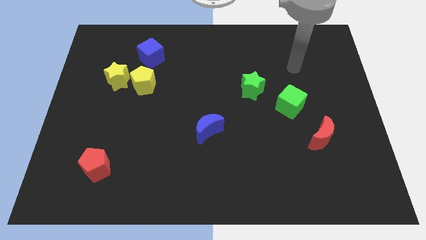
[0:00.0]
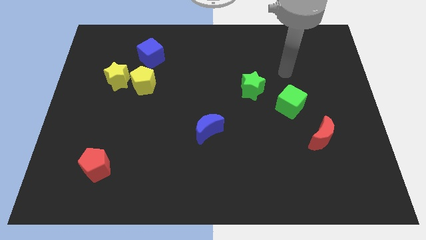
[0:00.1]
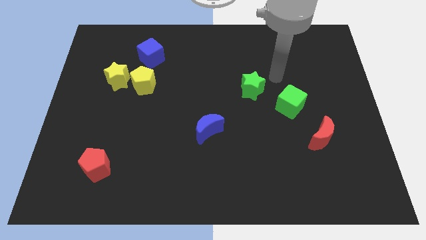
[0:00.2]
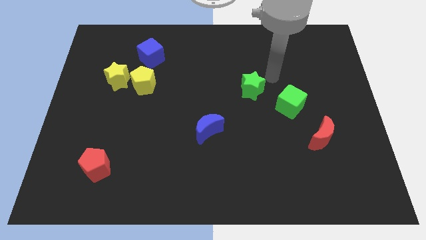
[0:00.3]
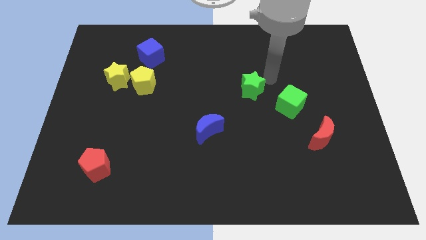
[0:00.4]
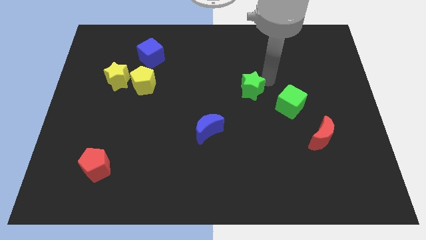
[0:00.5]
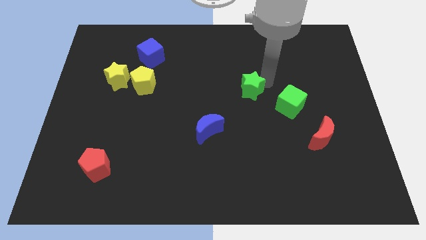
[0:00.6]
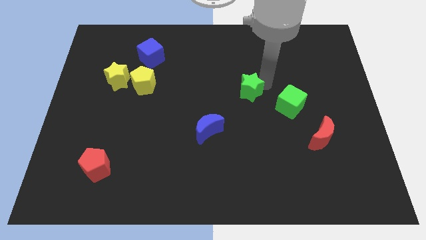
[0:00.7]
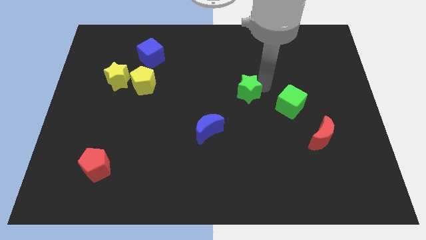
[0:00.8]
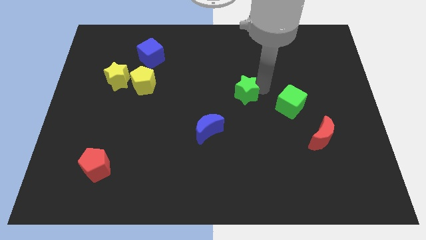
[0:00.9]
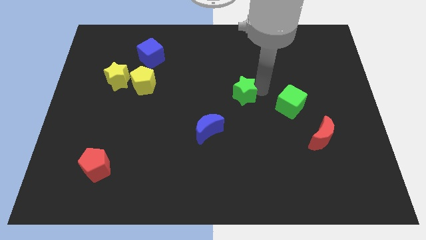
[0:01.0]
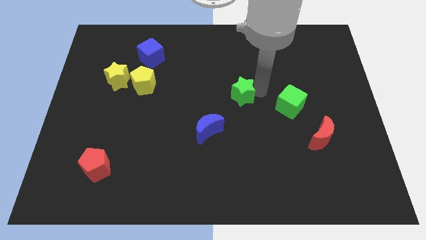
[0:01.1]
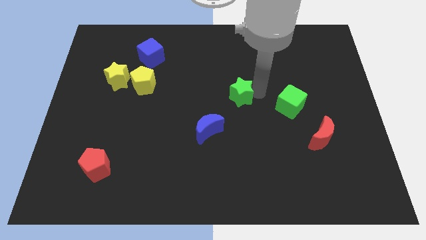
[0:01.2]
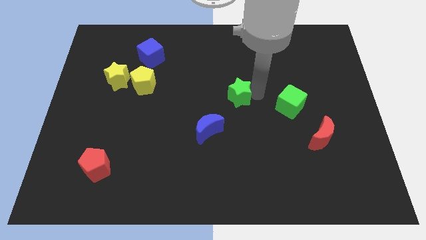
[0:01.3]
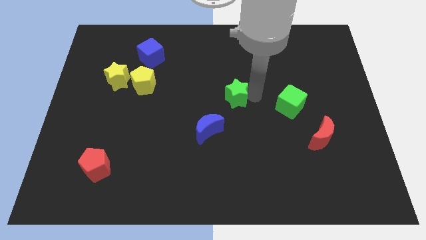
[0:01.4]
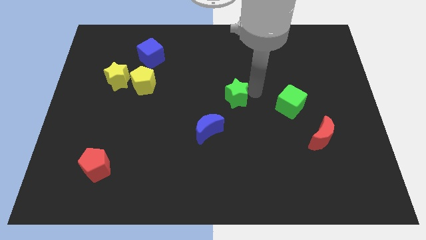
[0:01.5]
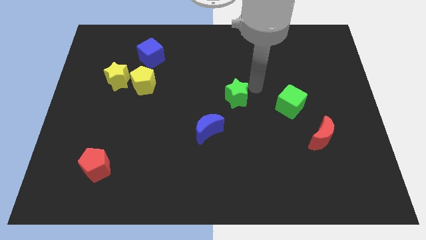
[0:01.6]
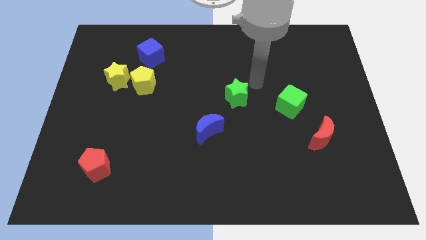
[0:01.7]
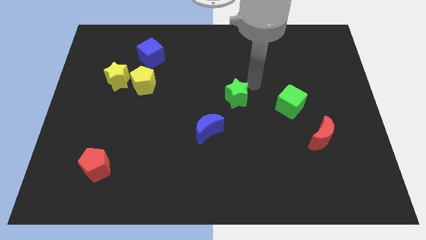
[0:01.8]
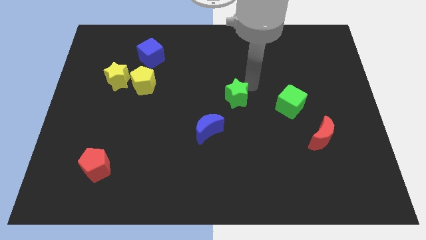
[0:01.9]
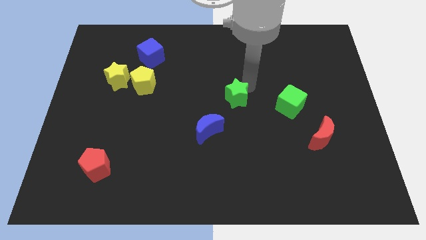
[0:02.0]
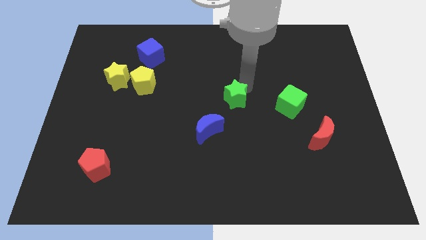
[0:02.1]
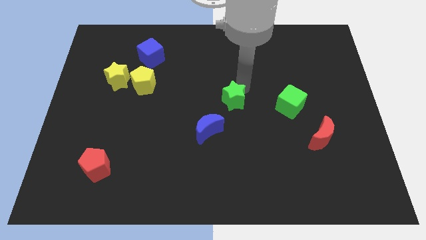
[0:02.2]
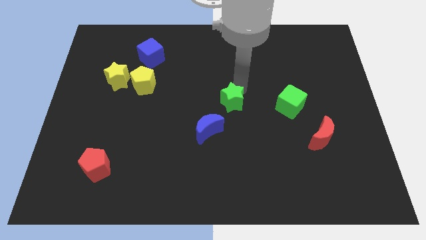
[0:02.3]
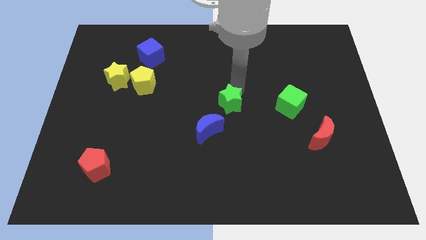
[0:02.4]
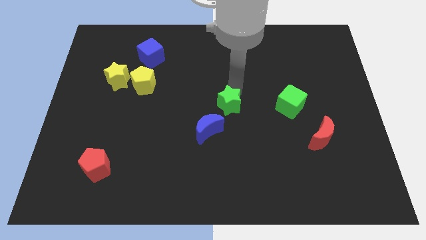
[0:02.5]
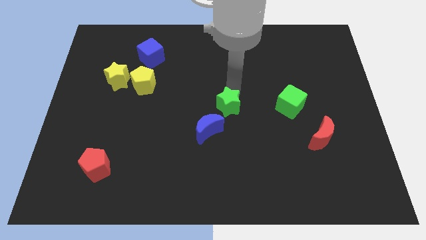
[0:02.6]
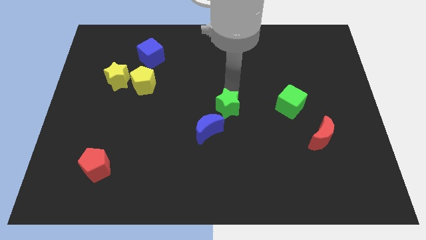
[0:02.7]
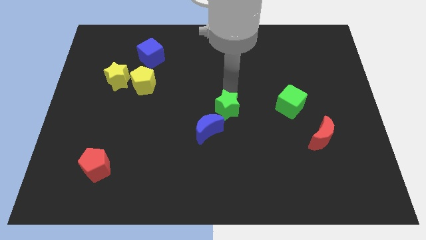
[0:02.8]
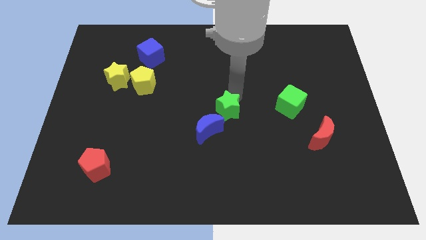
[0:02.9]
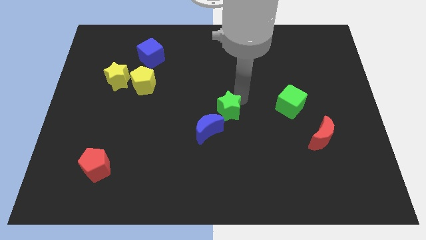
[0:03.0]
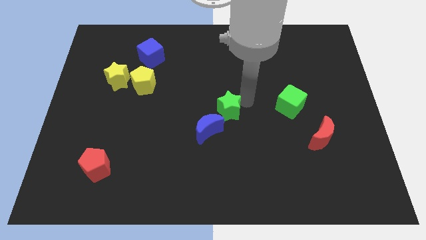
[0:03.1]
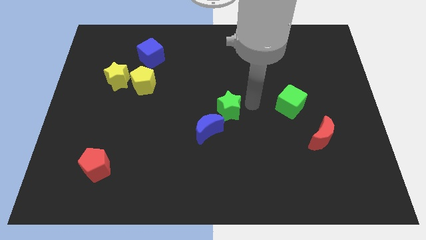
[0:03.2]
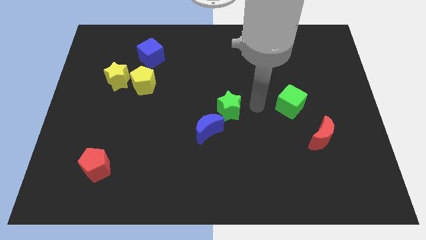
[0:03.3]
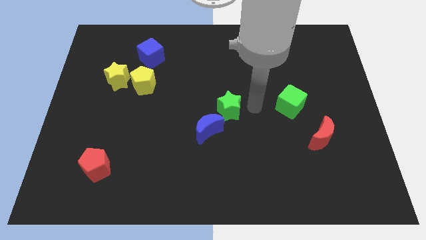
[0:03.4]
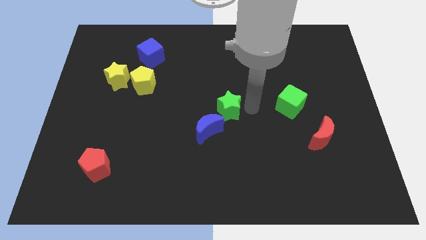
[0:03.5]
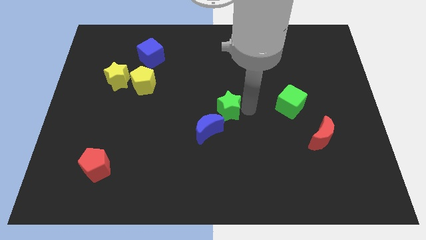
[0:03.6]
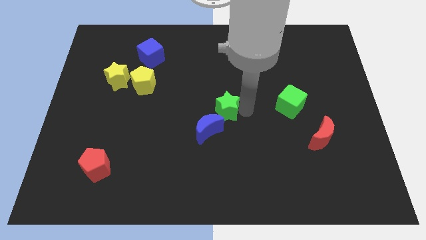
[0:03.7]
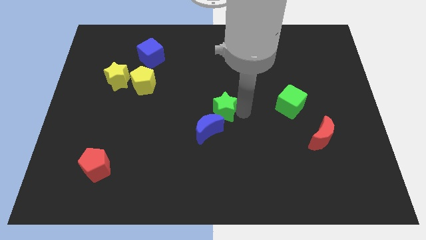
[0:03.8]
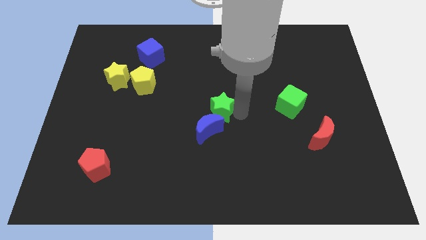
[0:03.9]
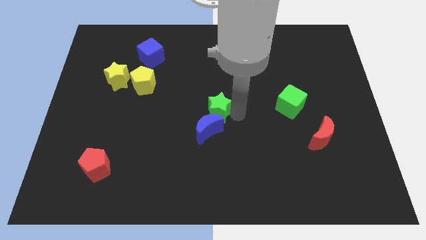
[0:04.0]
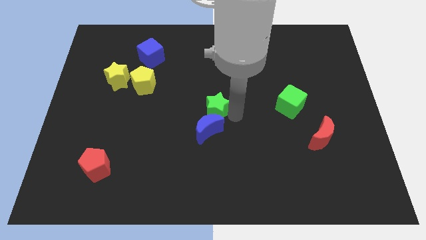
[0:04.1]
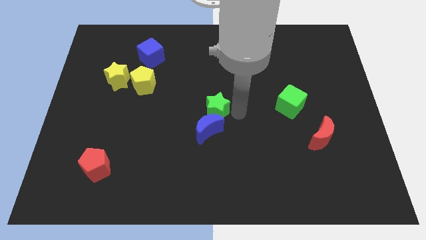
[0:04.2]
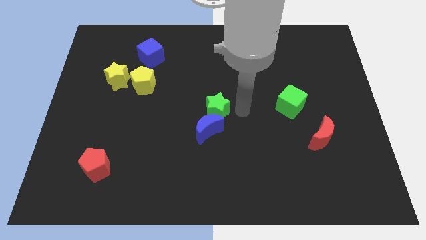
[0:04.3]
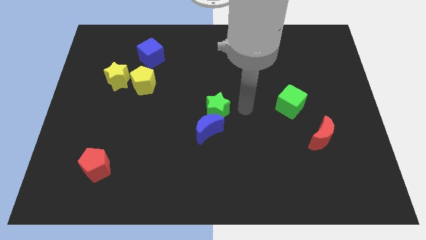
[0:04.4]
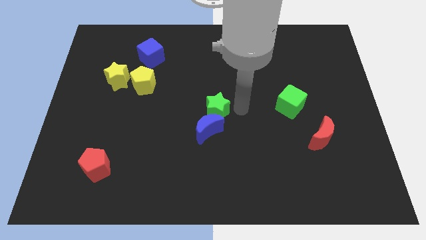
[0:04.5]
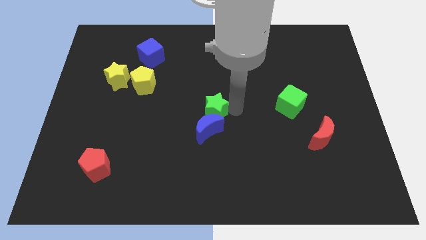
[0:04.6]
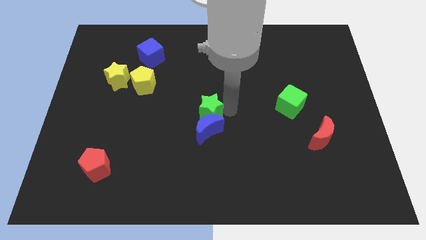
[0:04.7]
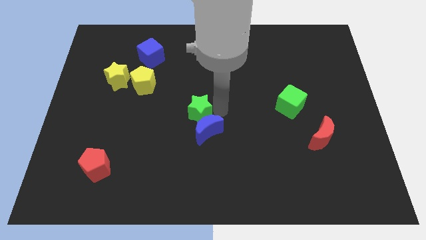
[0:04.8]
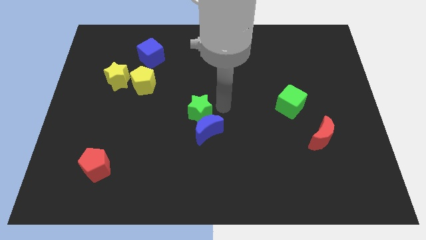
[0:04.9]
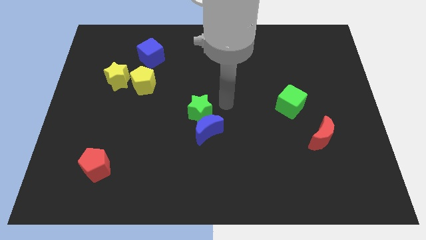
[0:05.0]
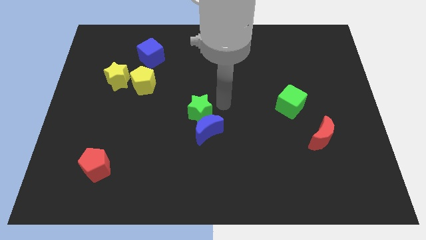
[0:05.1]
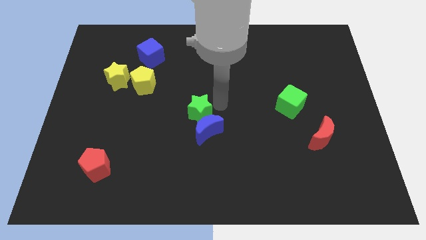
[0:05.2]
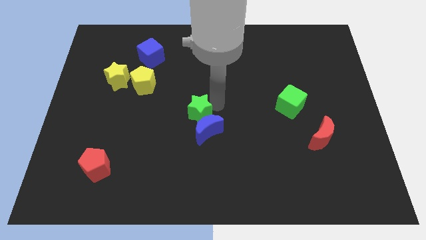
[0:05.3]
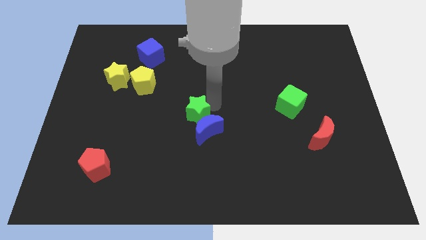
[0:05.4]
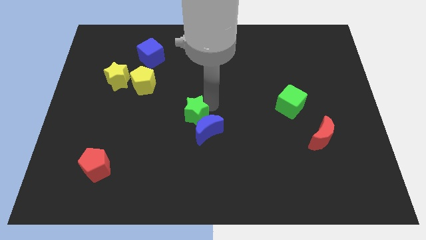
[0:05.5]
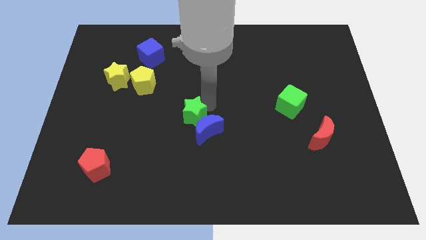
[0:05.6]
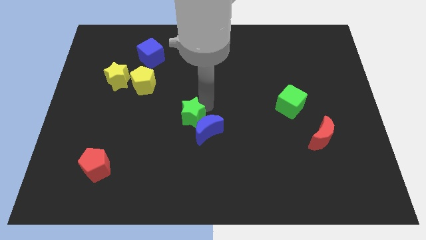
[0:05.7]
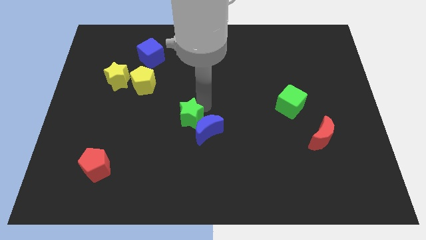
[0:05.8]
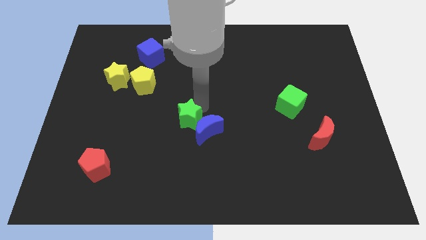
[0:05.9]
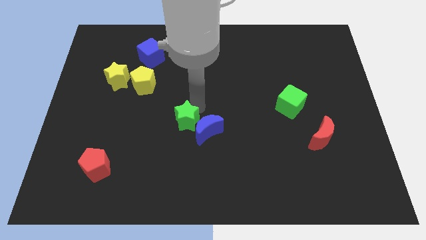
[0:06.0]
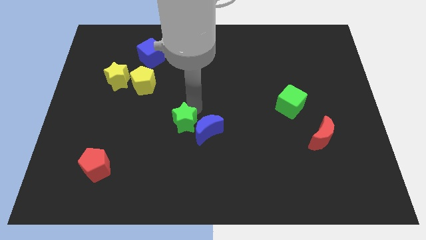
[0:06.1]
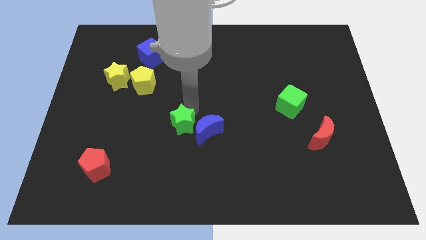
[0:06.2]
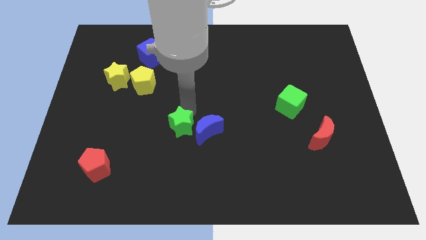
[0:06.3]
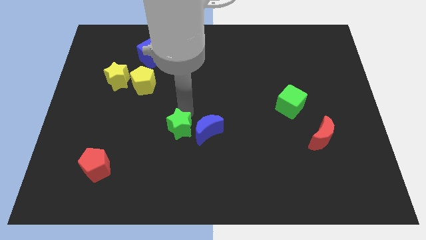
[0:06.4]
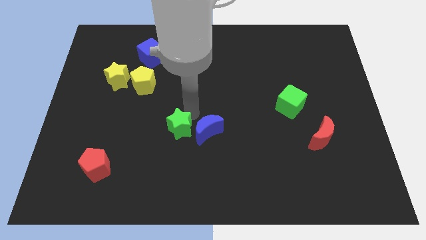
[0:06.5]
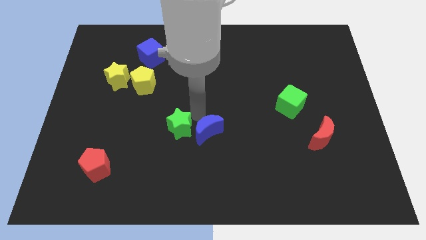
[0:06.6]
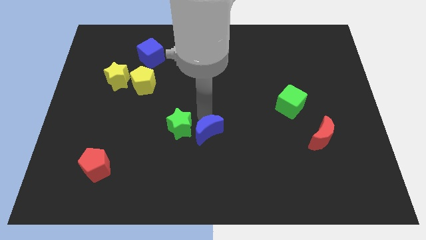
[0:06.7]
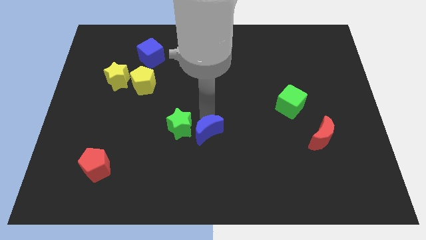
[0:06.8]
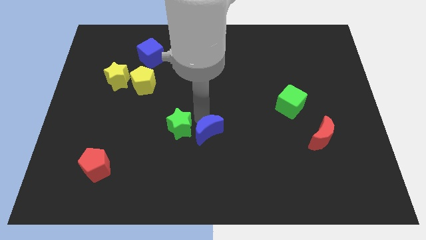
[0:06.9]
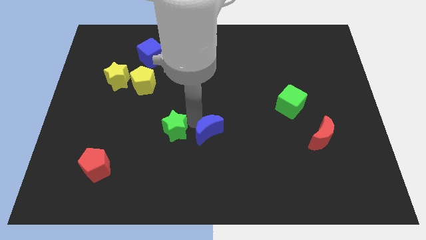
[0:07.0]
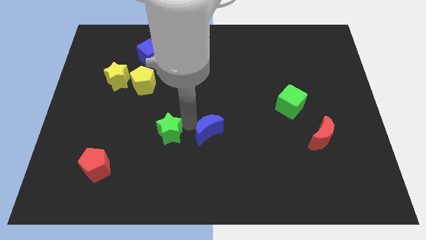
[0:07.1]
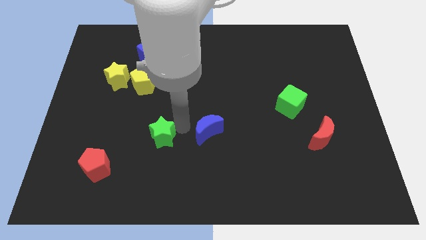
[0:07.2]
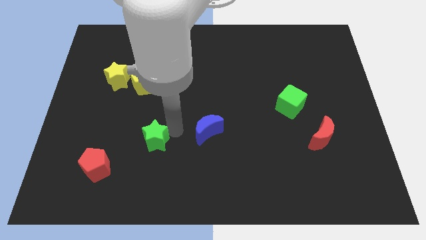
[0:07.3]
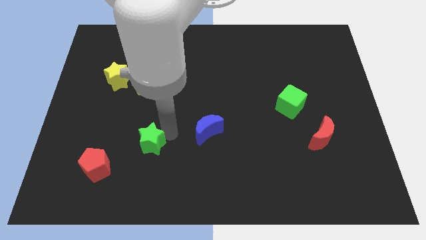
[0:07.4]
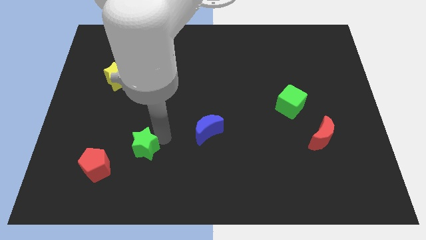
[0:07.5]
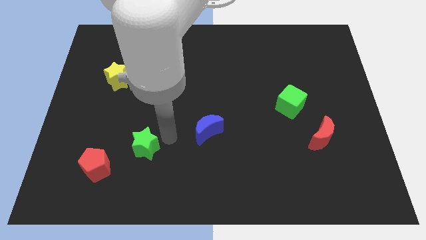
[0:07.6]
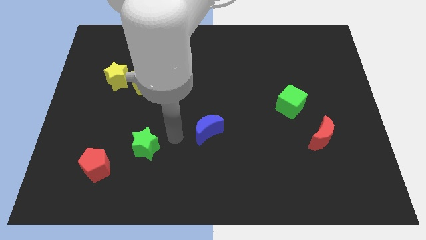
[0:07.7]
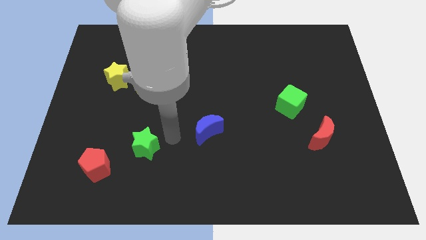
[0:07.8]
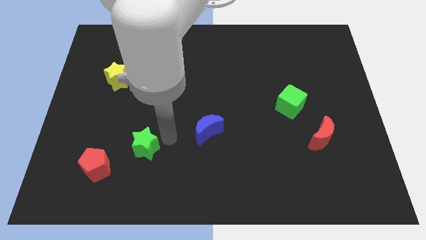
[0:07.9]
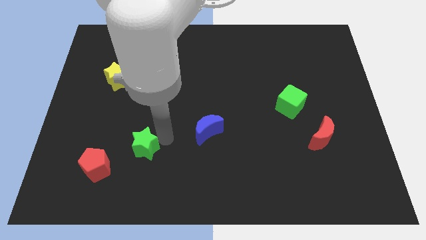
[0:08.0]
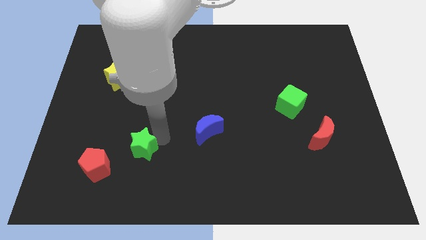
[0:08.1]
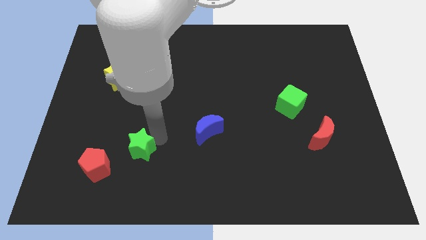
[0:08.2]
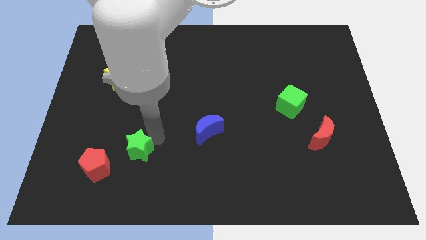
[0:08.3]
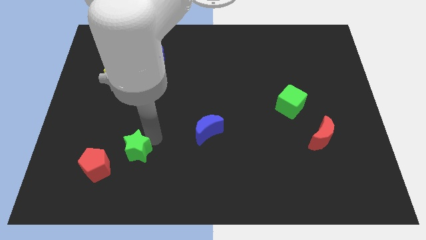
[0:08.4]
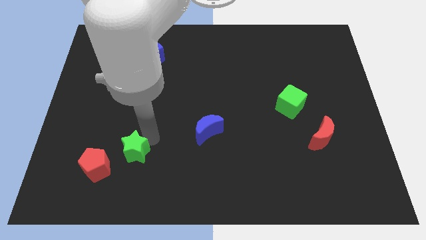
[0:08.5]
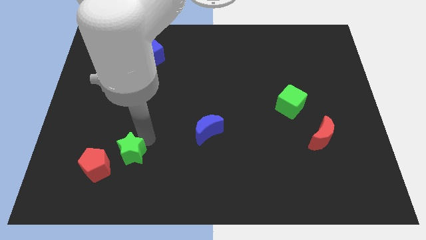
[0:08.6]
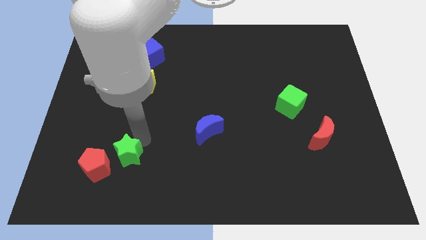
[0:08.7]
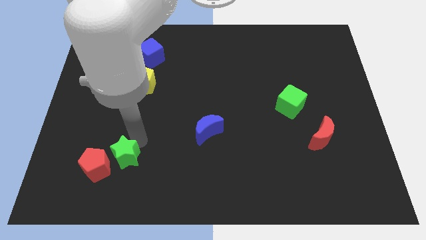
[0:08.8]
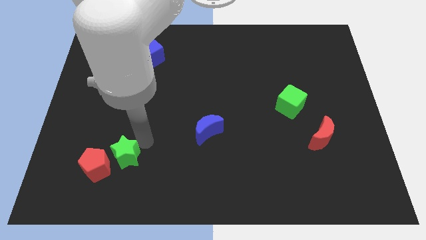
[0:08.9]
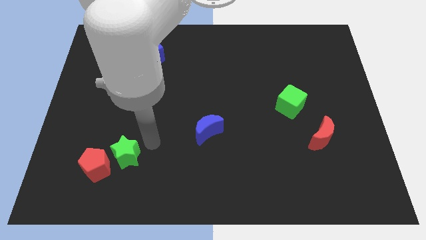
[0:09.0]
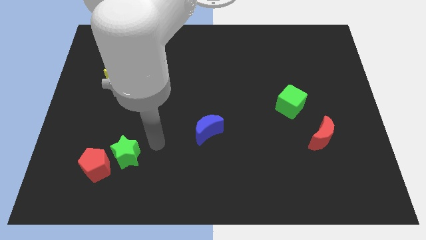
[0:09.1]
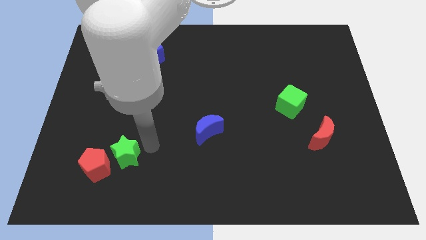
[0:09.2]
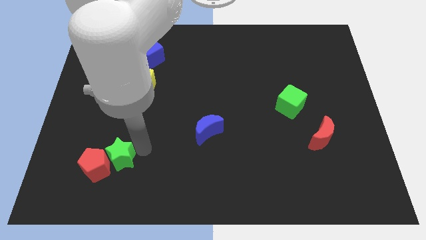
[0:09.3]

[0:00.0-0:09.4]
move the green star close to the red pentagon
